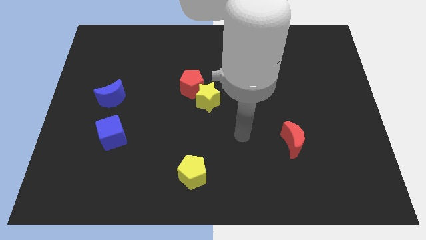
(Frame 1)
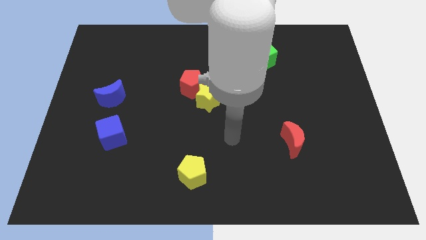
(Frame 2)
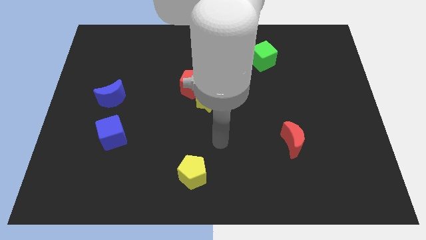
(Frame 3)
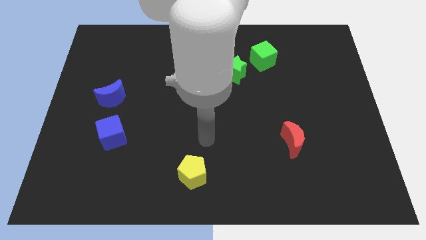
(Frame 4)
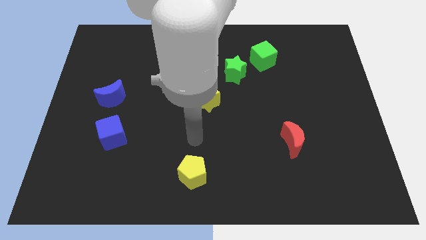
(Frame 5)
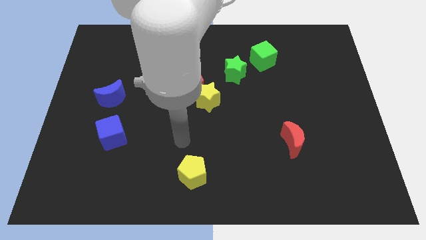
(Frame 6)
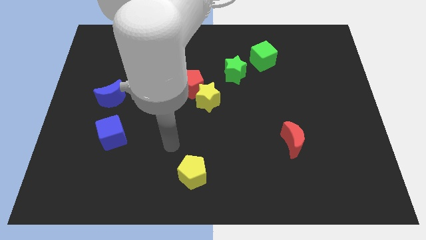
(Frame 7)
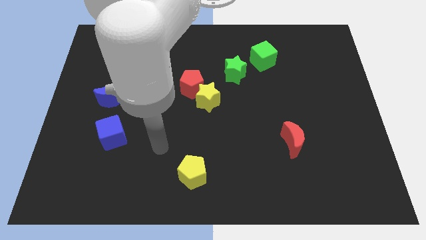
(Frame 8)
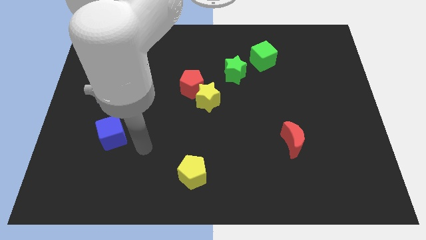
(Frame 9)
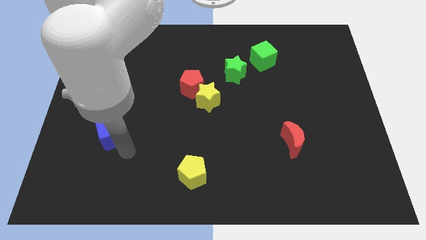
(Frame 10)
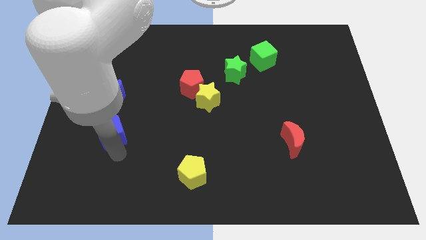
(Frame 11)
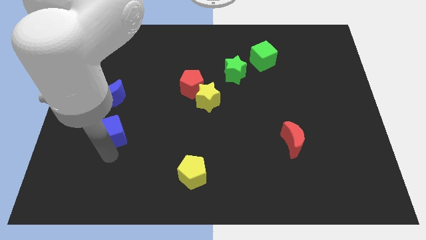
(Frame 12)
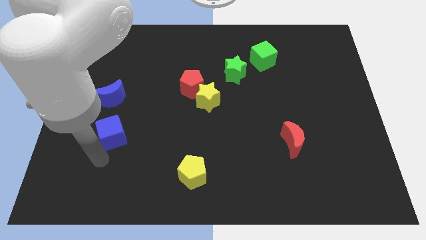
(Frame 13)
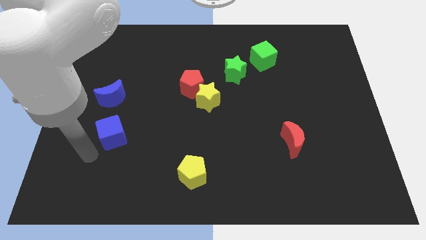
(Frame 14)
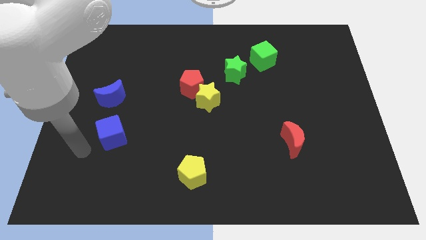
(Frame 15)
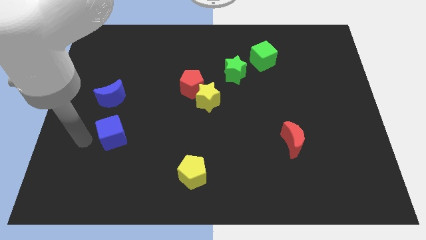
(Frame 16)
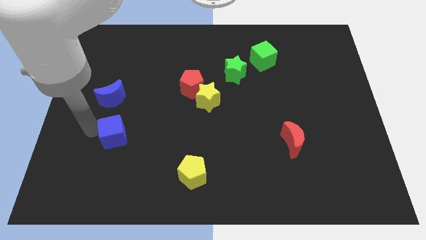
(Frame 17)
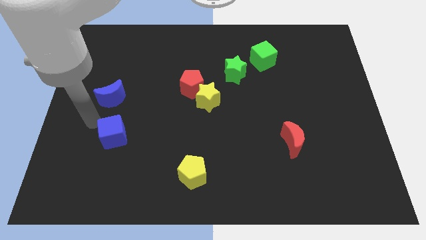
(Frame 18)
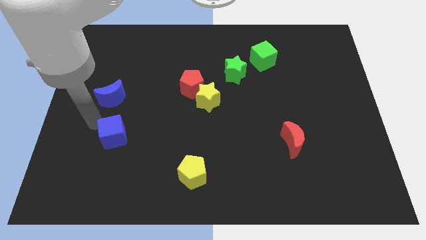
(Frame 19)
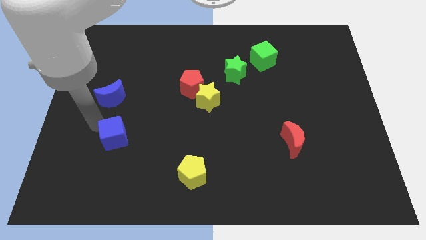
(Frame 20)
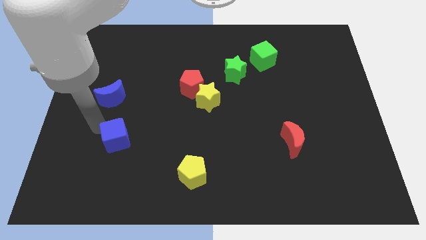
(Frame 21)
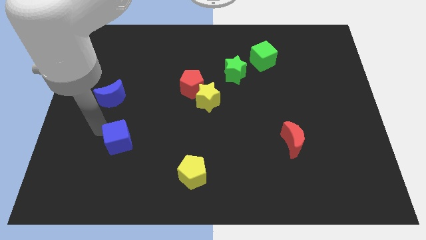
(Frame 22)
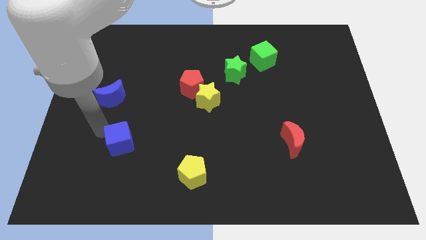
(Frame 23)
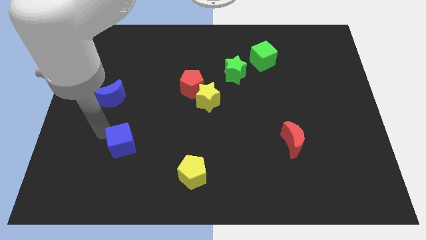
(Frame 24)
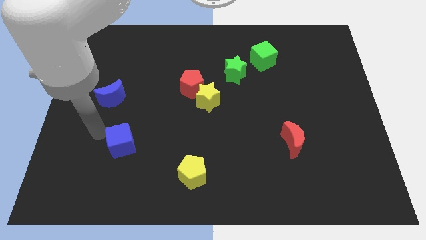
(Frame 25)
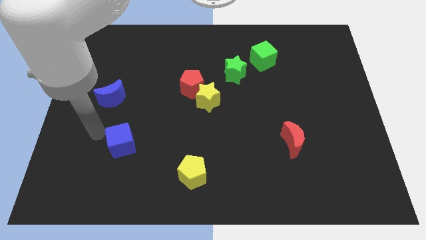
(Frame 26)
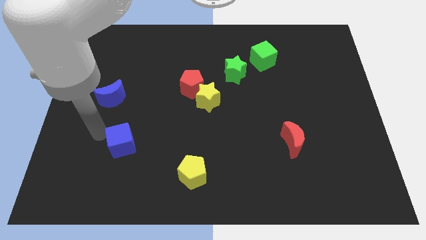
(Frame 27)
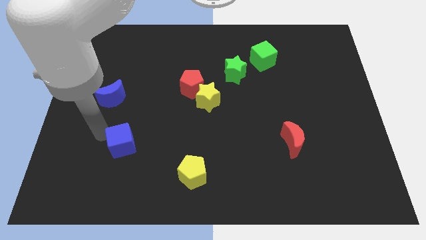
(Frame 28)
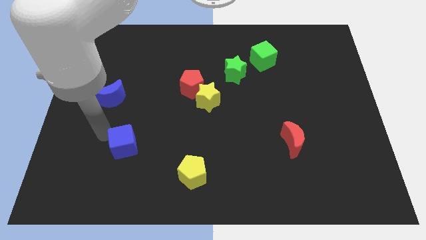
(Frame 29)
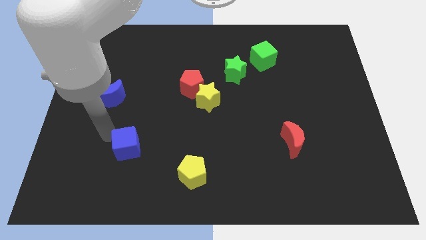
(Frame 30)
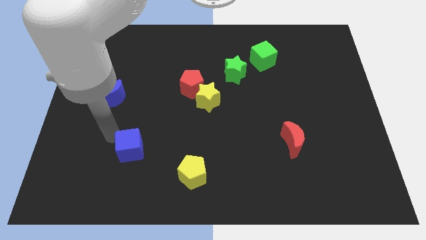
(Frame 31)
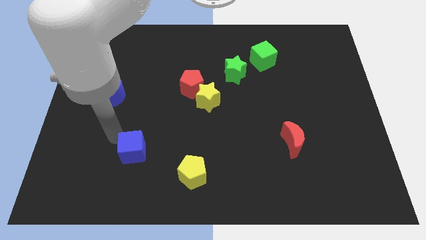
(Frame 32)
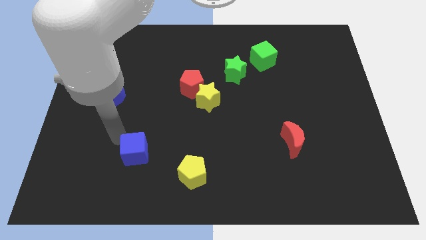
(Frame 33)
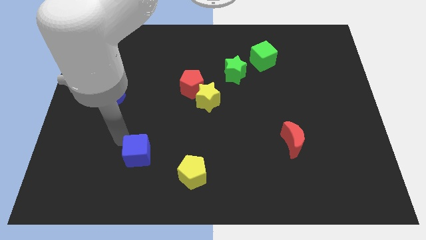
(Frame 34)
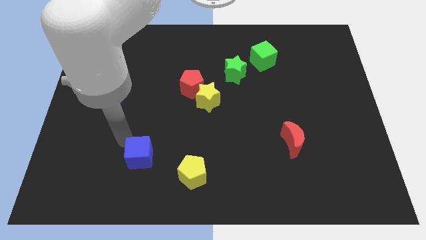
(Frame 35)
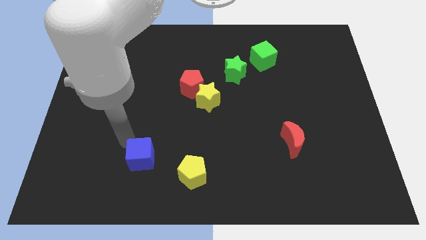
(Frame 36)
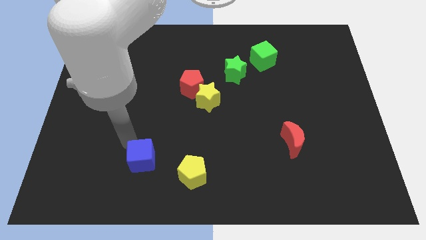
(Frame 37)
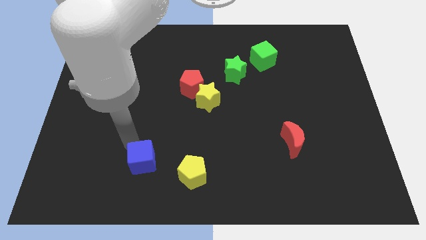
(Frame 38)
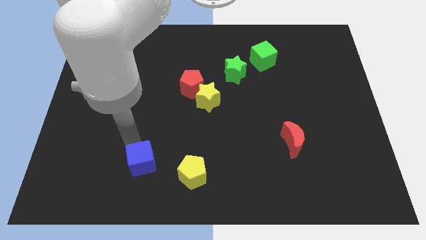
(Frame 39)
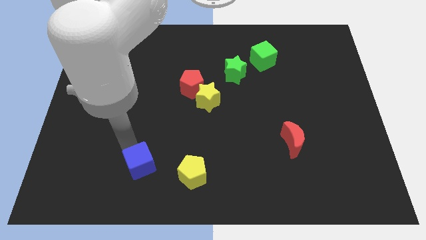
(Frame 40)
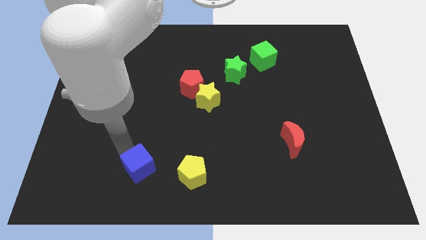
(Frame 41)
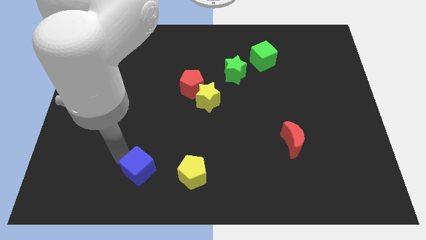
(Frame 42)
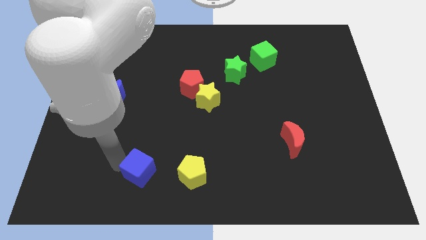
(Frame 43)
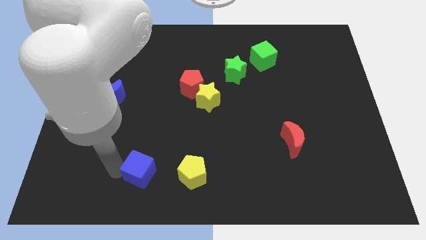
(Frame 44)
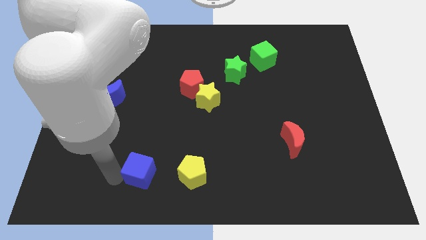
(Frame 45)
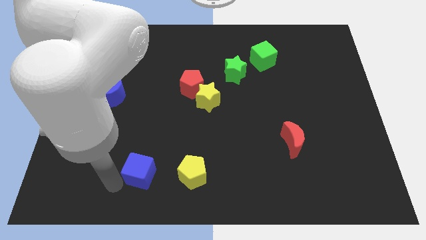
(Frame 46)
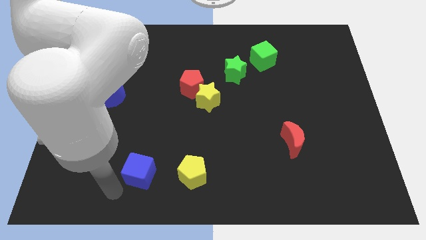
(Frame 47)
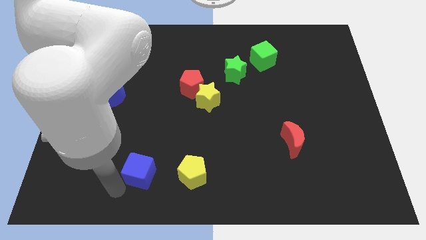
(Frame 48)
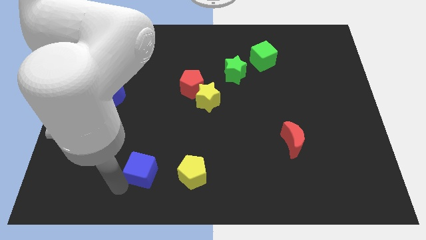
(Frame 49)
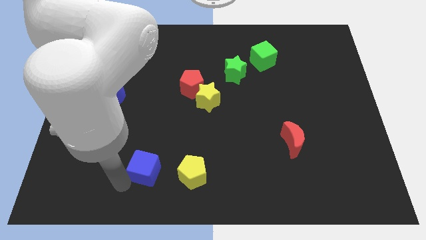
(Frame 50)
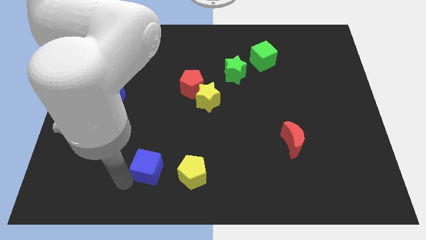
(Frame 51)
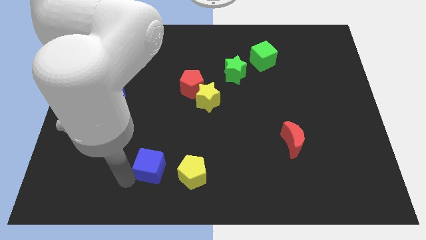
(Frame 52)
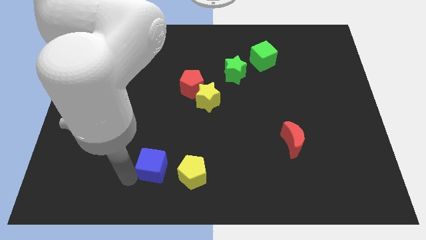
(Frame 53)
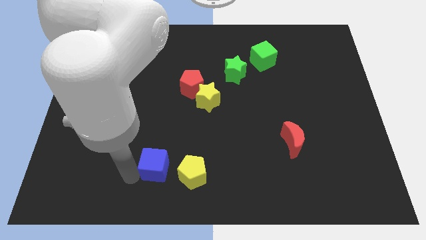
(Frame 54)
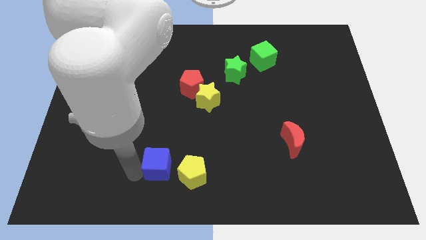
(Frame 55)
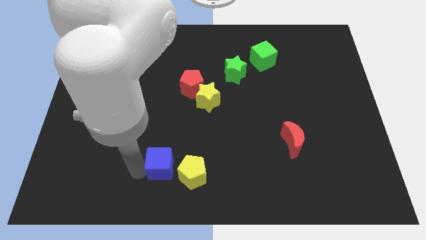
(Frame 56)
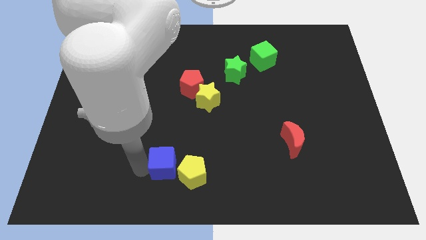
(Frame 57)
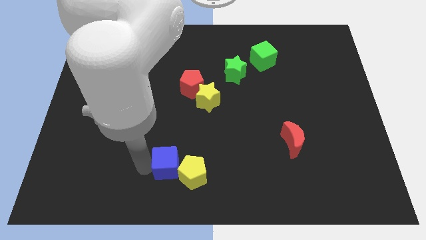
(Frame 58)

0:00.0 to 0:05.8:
move the blue cube close to the yellow pentagon

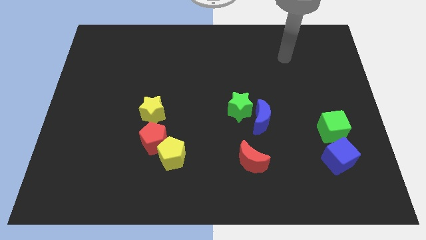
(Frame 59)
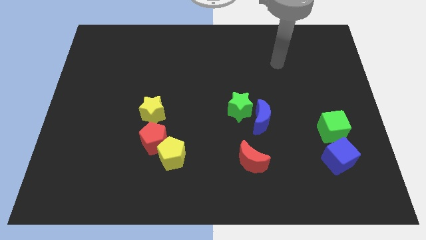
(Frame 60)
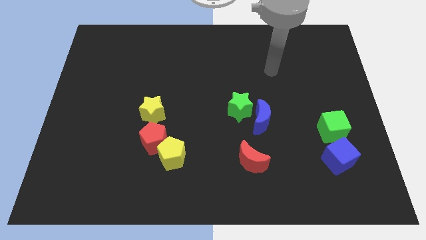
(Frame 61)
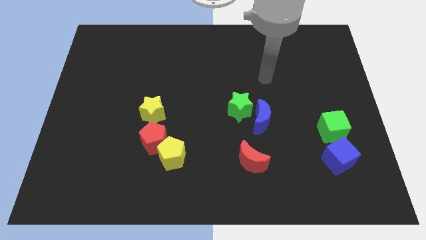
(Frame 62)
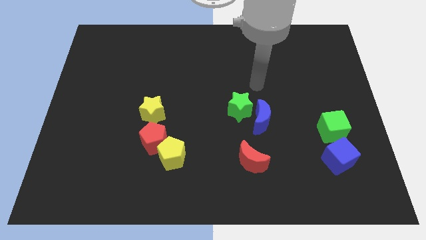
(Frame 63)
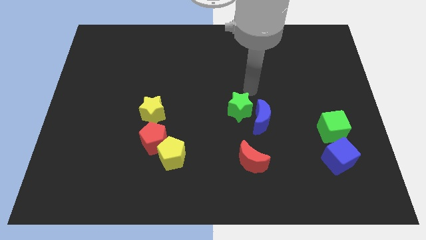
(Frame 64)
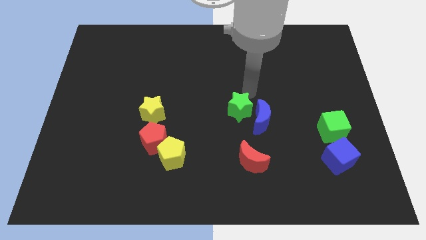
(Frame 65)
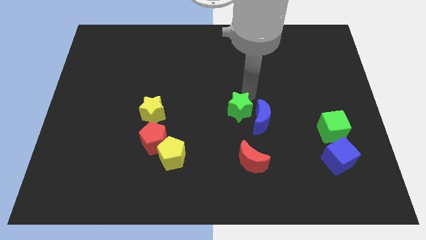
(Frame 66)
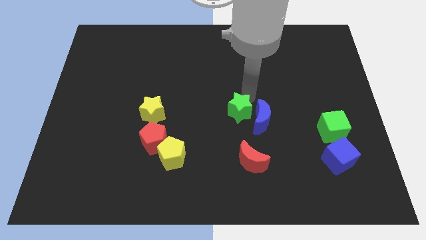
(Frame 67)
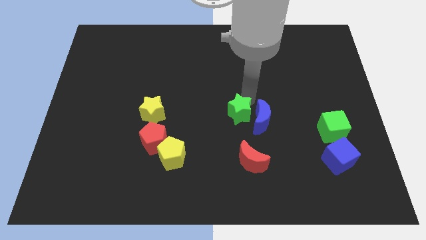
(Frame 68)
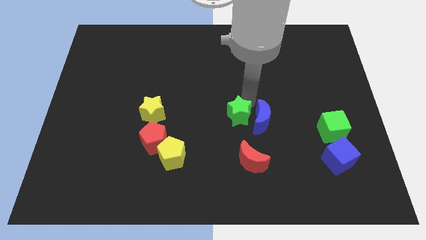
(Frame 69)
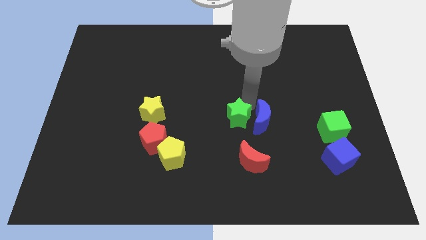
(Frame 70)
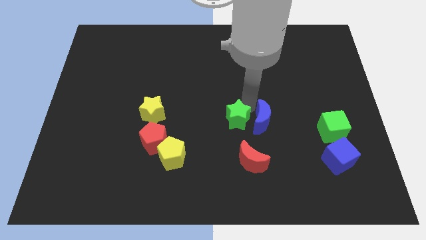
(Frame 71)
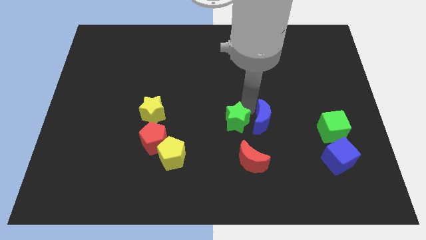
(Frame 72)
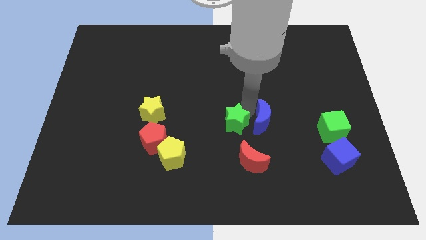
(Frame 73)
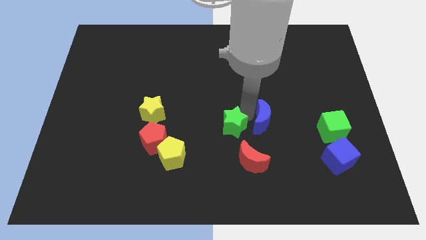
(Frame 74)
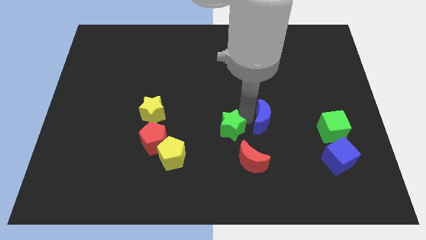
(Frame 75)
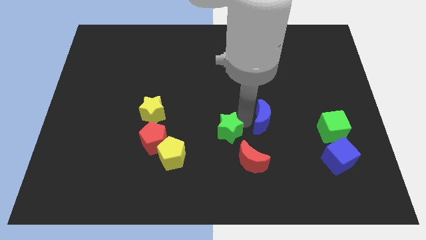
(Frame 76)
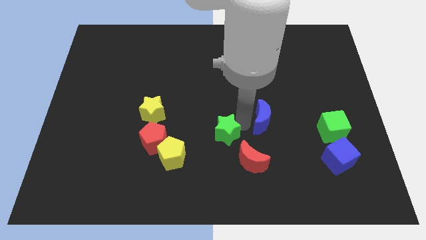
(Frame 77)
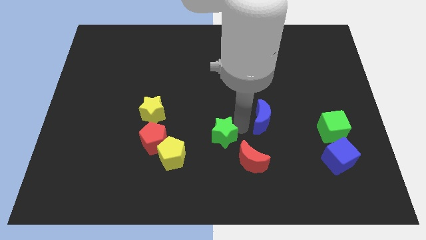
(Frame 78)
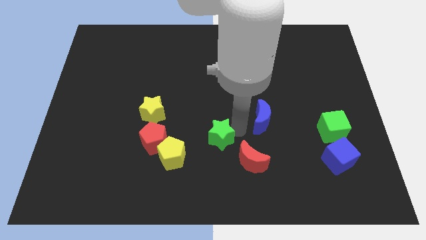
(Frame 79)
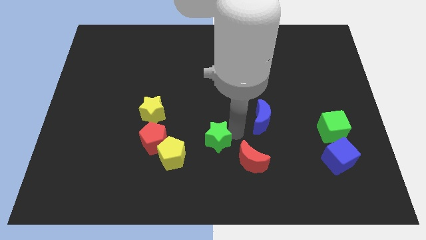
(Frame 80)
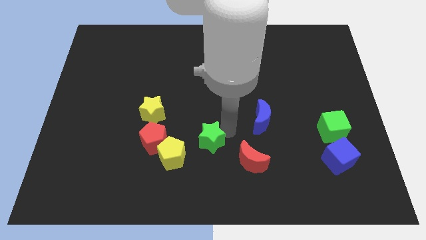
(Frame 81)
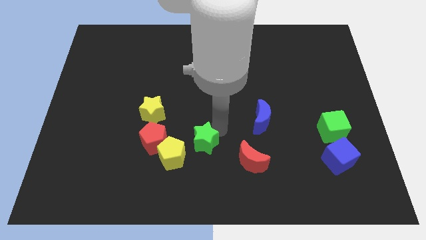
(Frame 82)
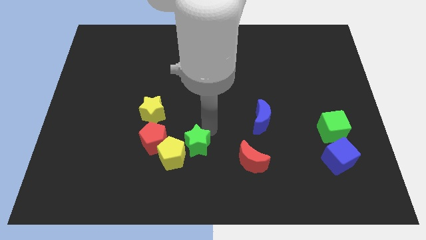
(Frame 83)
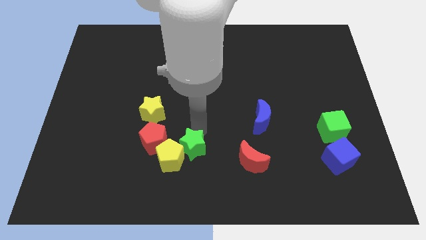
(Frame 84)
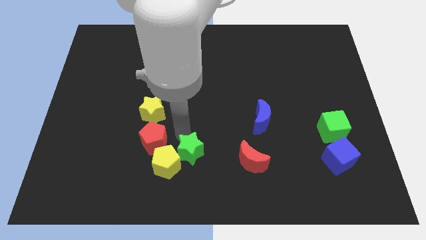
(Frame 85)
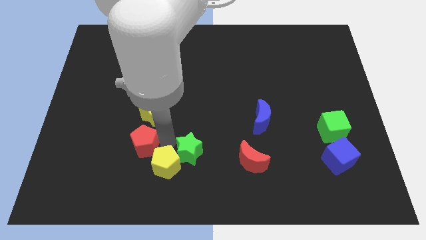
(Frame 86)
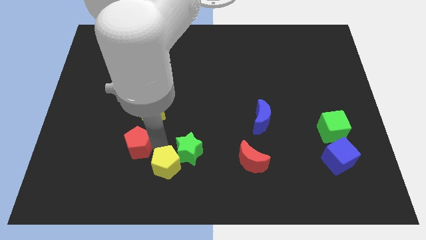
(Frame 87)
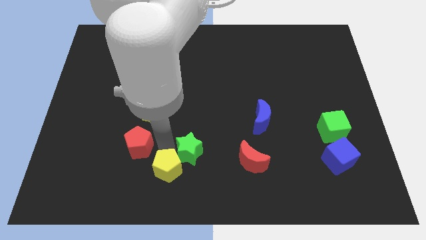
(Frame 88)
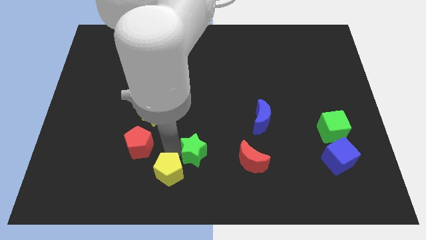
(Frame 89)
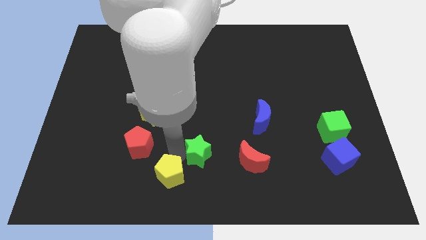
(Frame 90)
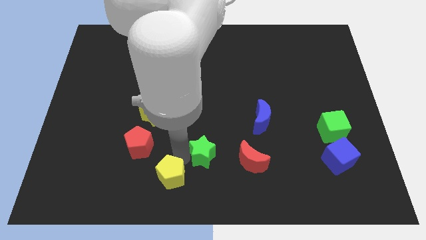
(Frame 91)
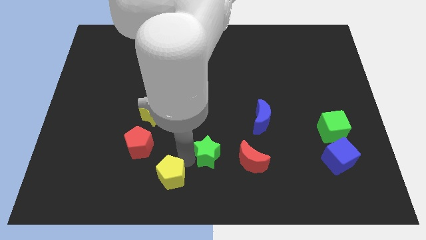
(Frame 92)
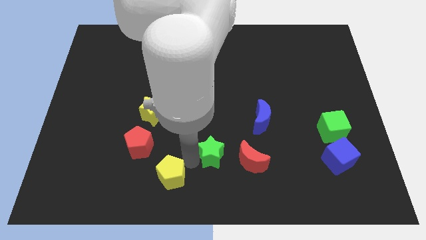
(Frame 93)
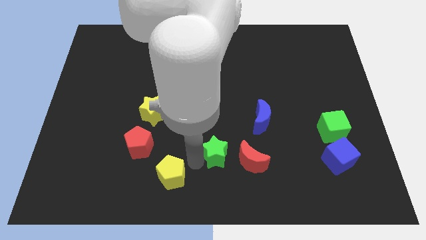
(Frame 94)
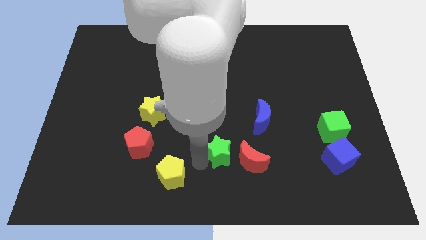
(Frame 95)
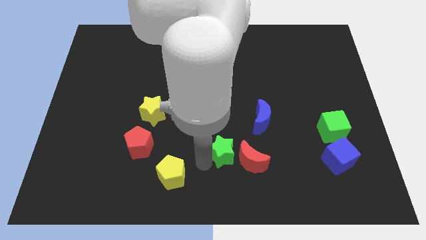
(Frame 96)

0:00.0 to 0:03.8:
slide the green star towards the red moon
